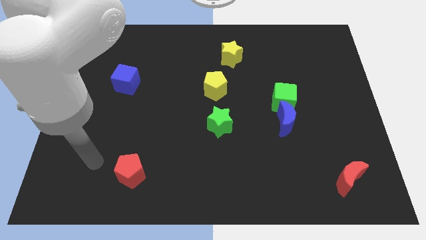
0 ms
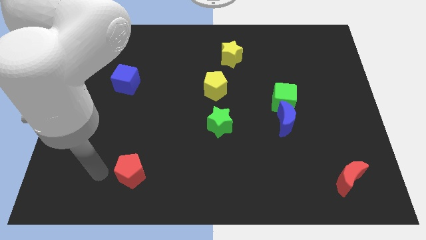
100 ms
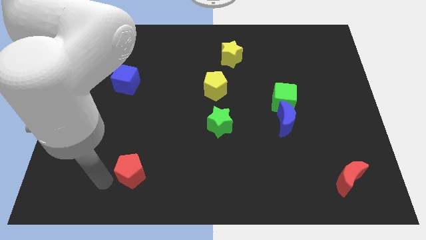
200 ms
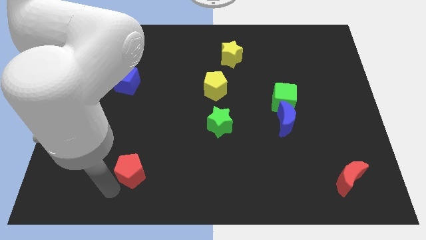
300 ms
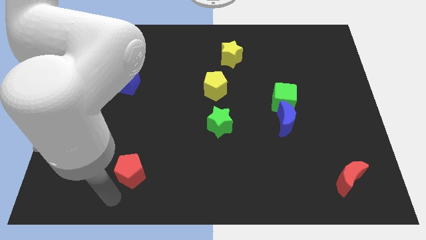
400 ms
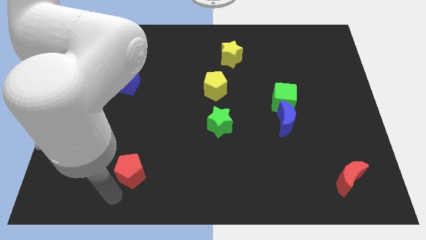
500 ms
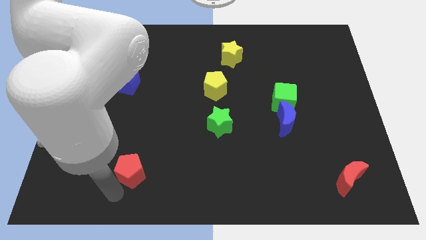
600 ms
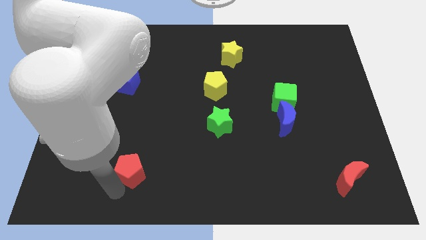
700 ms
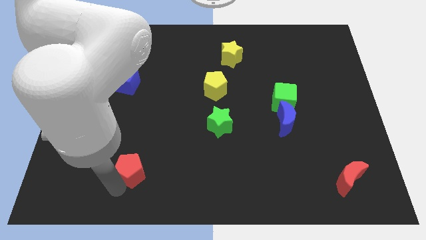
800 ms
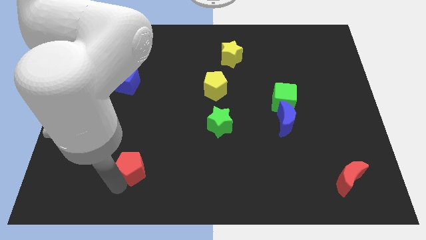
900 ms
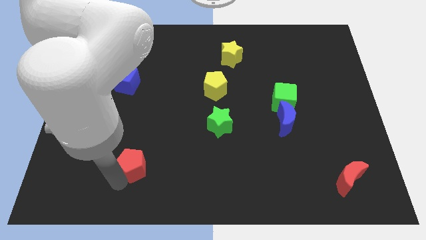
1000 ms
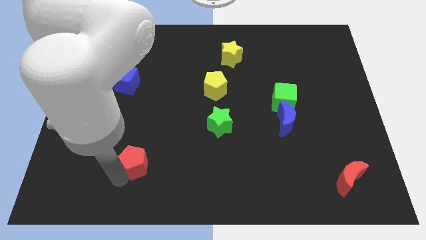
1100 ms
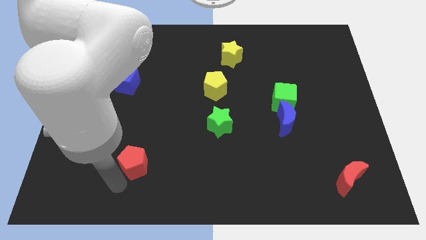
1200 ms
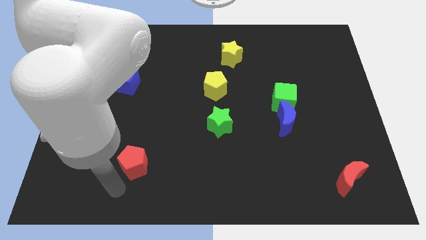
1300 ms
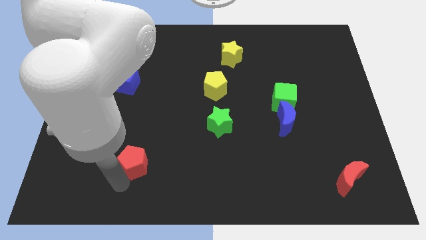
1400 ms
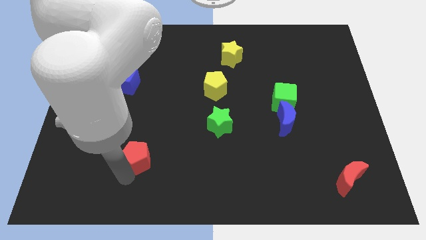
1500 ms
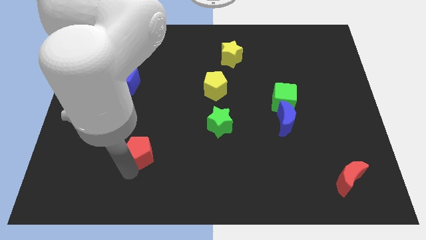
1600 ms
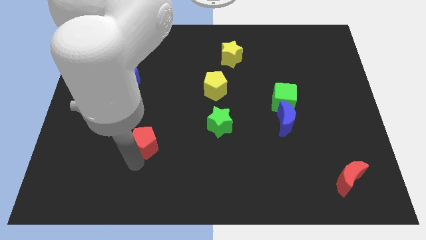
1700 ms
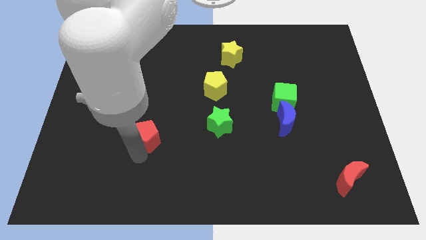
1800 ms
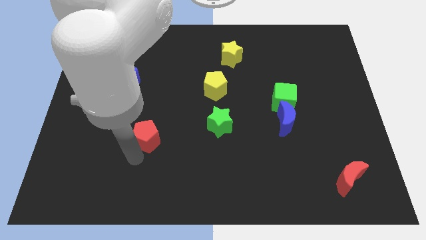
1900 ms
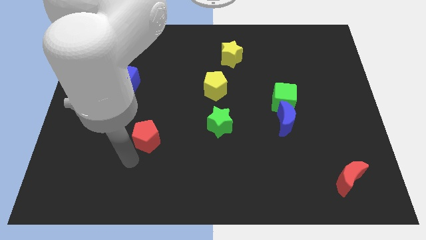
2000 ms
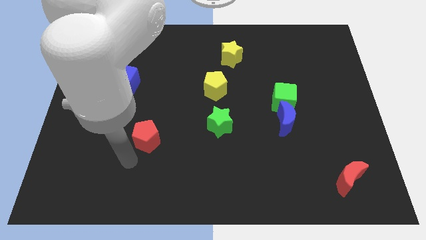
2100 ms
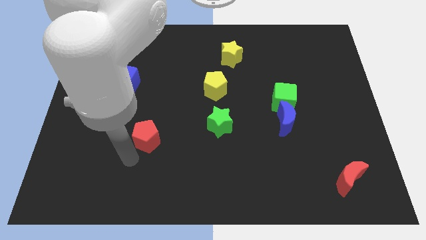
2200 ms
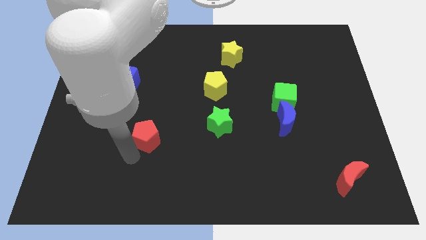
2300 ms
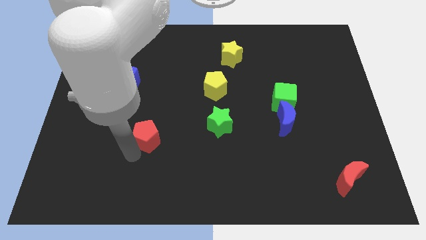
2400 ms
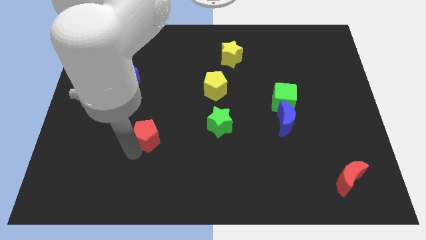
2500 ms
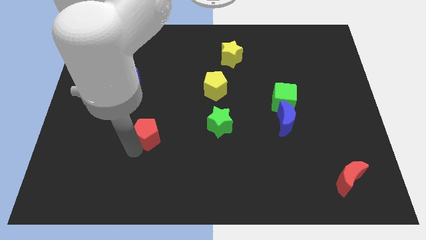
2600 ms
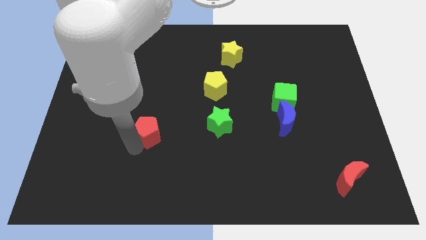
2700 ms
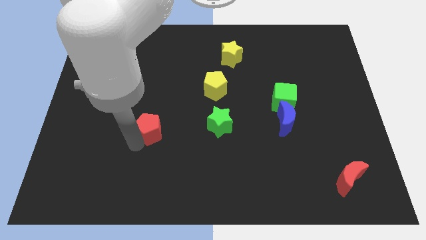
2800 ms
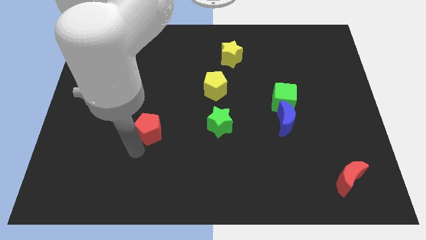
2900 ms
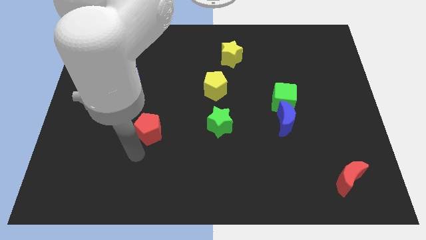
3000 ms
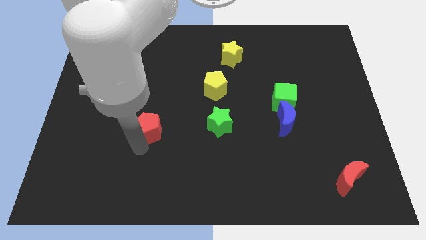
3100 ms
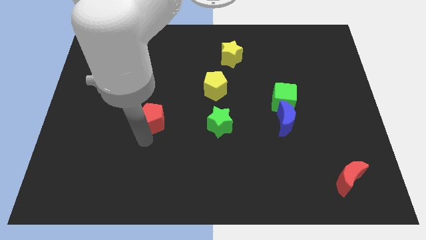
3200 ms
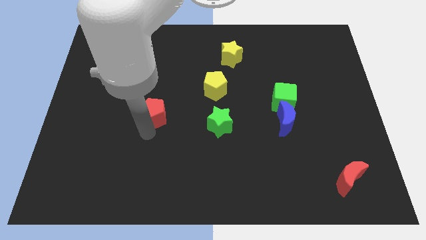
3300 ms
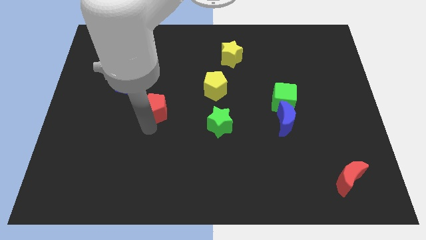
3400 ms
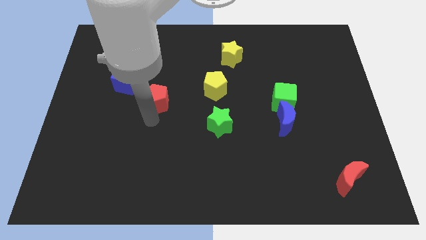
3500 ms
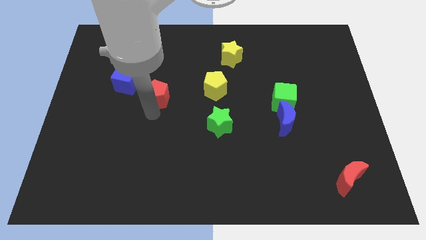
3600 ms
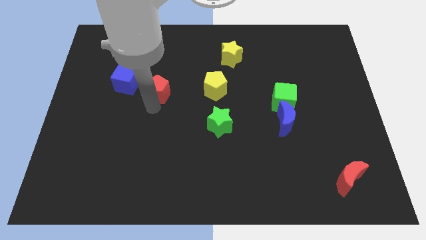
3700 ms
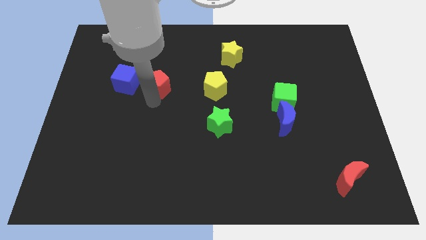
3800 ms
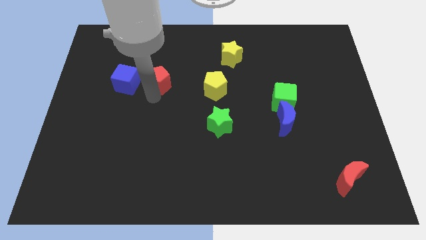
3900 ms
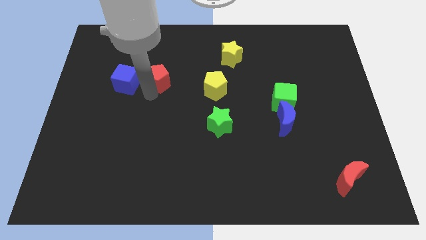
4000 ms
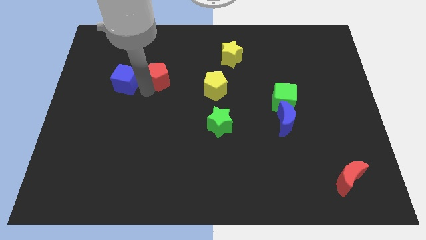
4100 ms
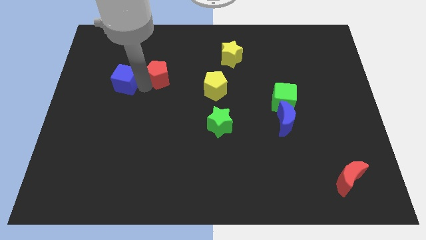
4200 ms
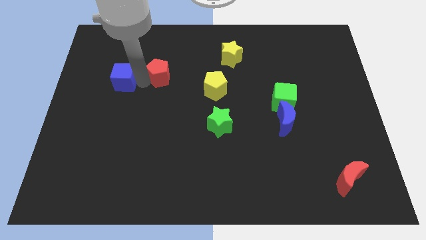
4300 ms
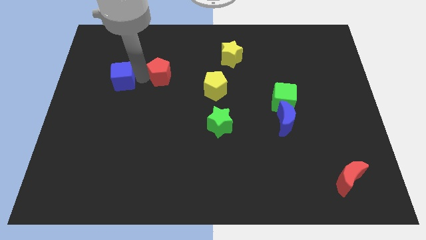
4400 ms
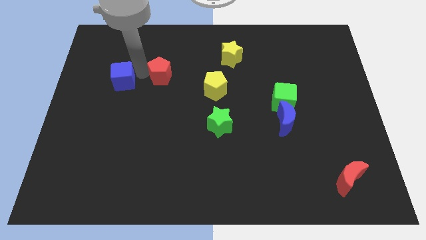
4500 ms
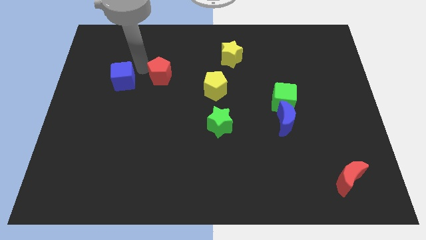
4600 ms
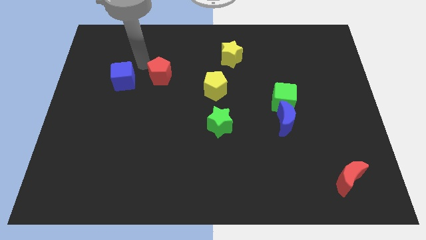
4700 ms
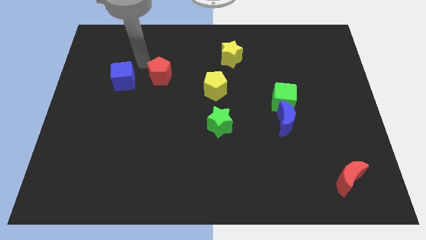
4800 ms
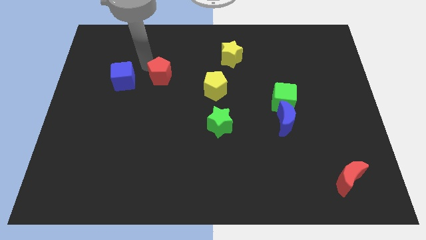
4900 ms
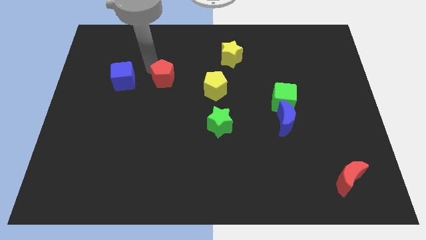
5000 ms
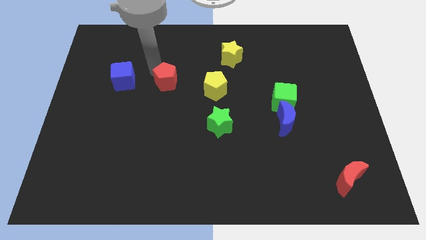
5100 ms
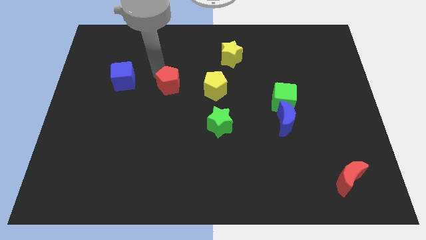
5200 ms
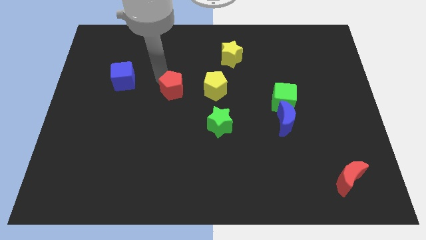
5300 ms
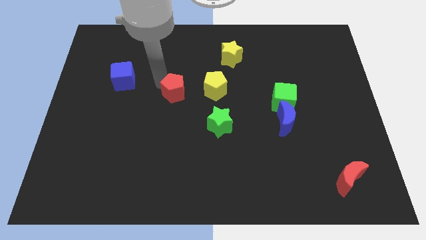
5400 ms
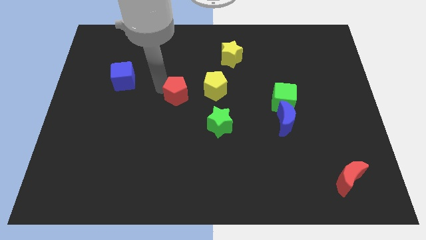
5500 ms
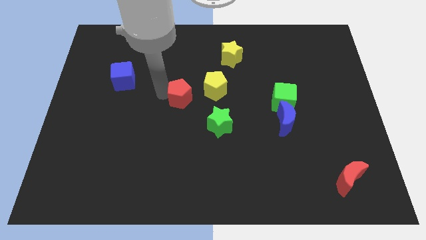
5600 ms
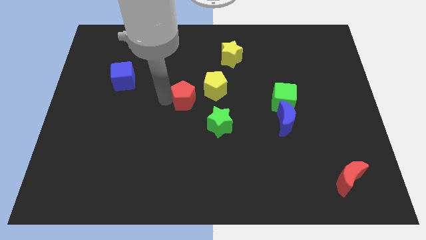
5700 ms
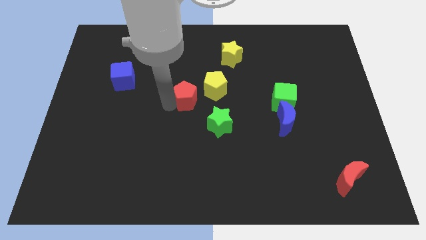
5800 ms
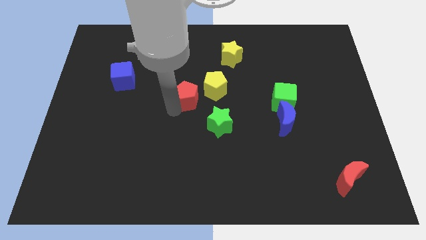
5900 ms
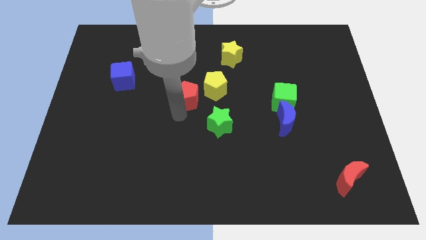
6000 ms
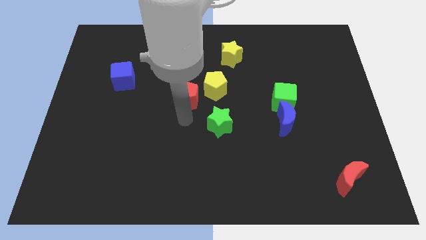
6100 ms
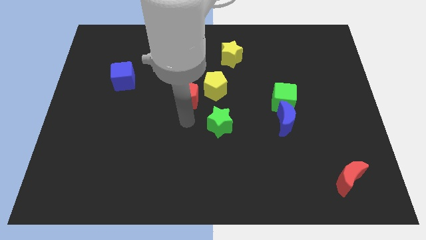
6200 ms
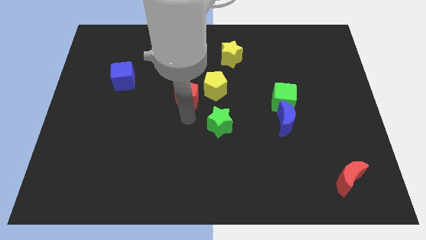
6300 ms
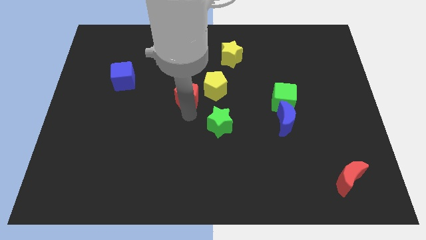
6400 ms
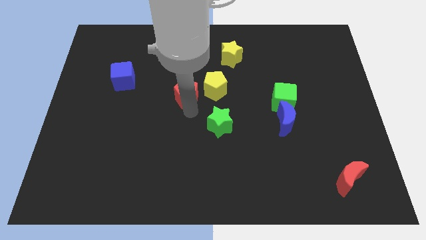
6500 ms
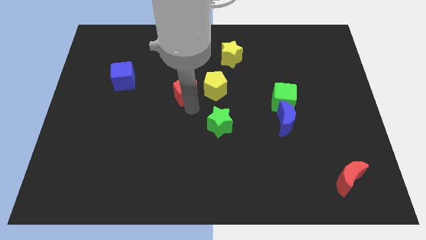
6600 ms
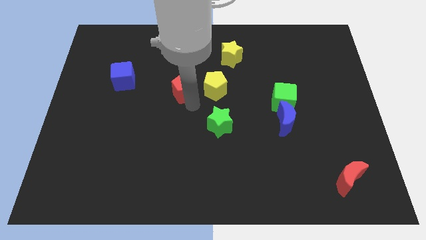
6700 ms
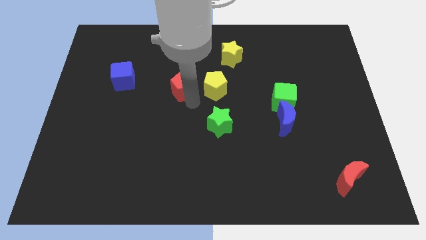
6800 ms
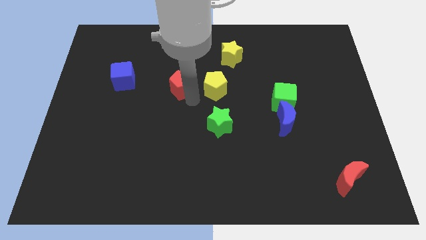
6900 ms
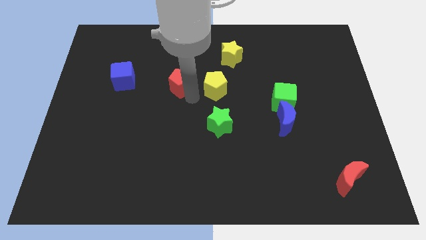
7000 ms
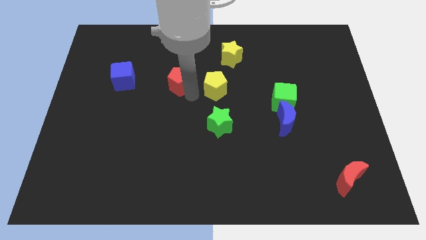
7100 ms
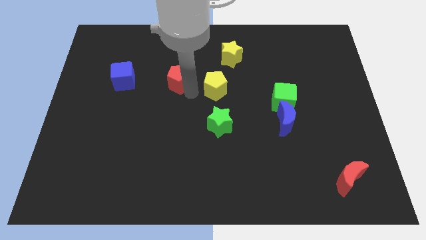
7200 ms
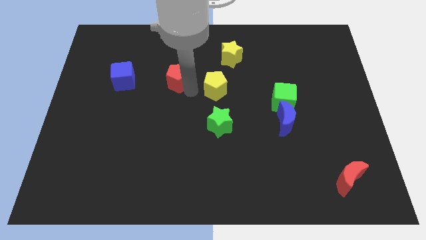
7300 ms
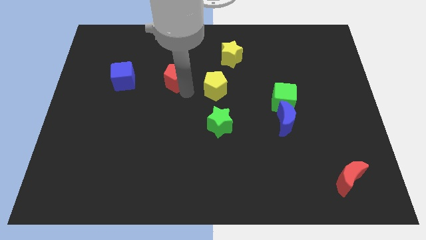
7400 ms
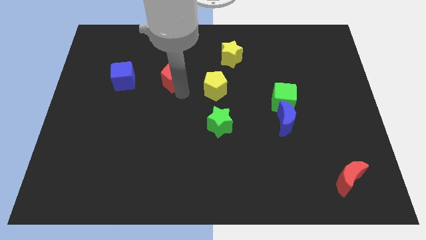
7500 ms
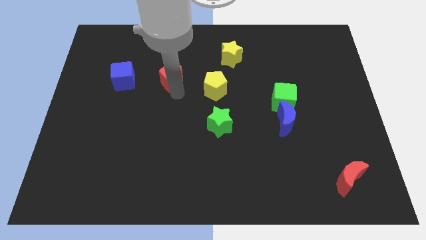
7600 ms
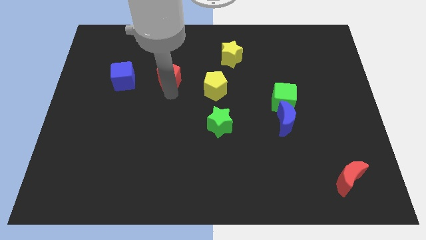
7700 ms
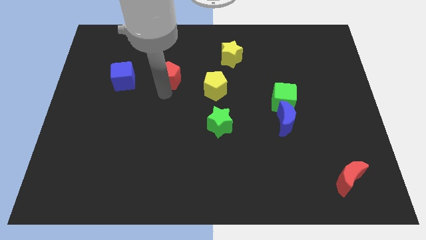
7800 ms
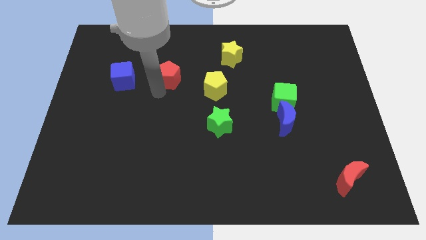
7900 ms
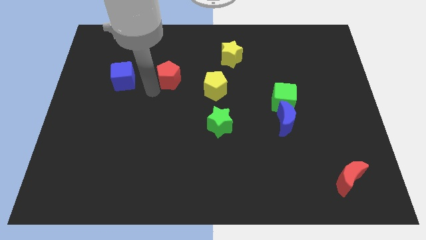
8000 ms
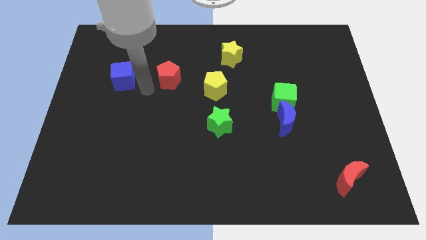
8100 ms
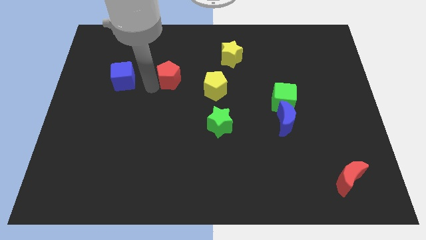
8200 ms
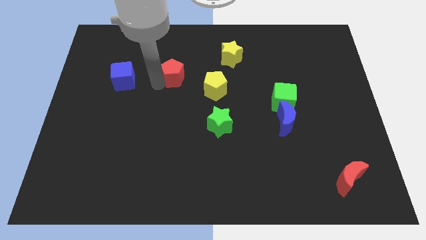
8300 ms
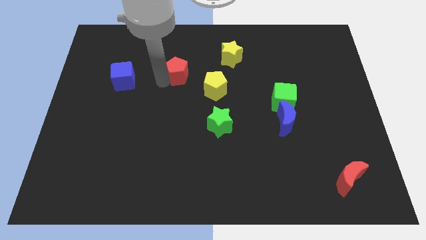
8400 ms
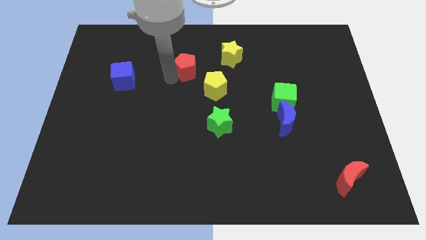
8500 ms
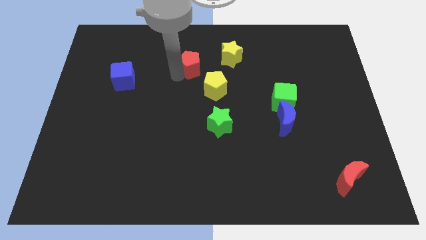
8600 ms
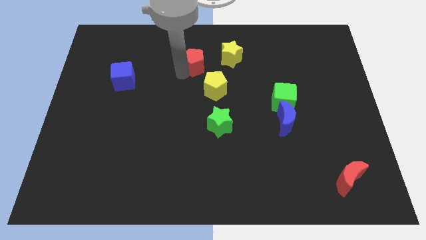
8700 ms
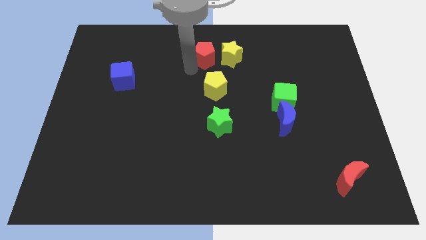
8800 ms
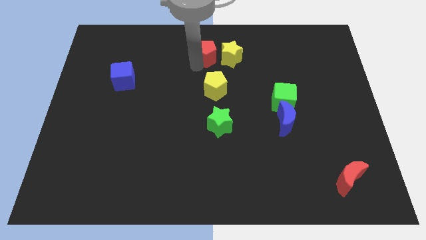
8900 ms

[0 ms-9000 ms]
move the red pentagon to the towards your base
